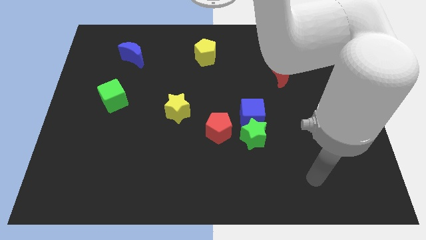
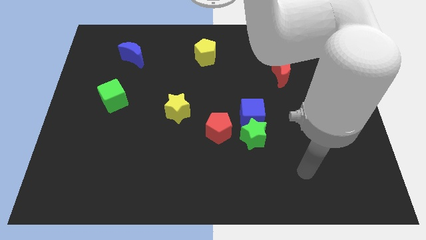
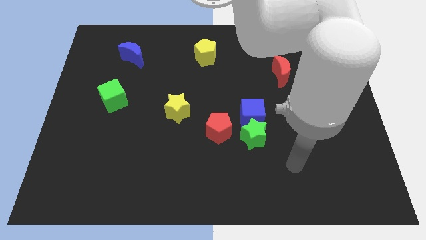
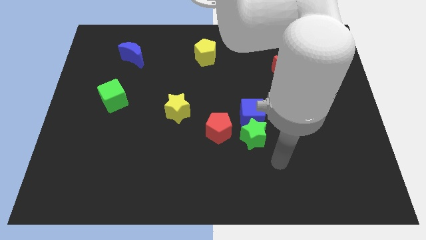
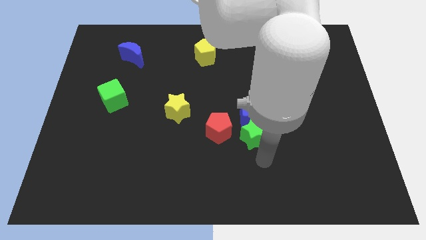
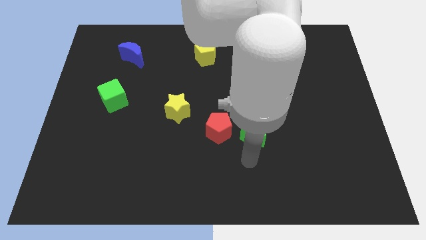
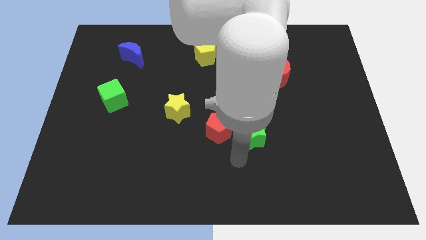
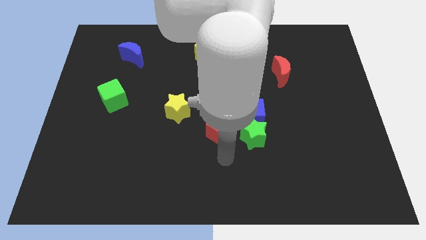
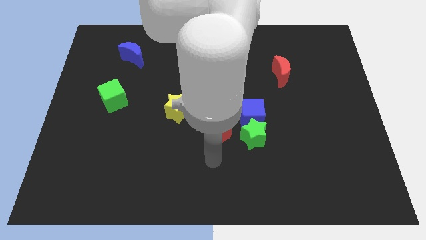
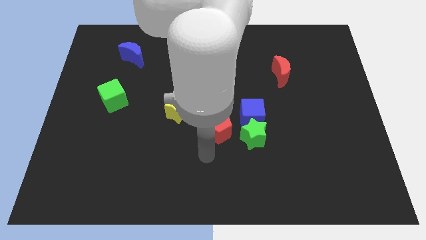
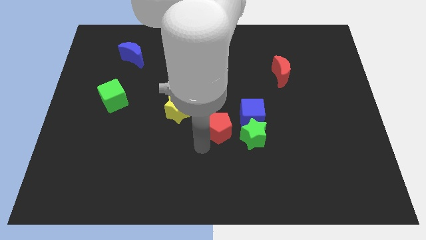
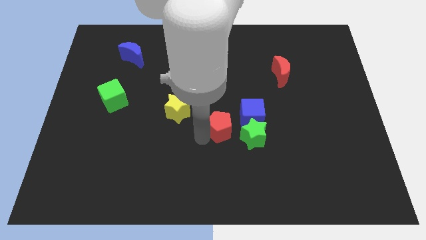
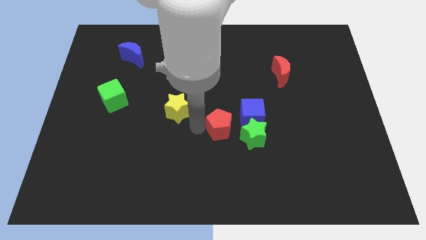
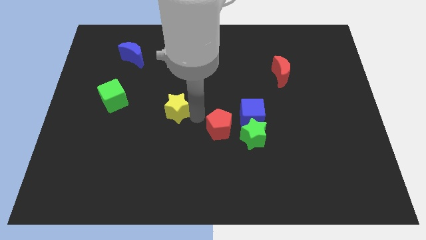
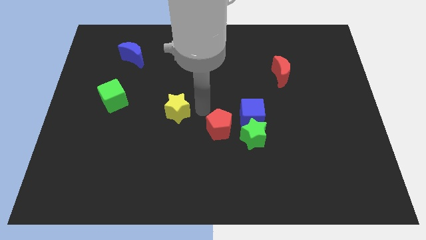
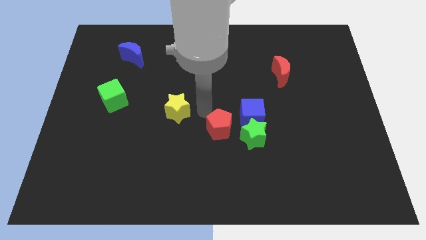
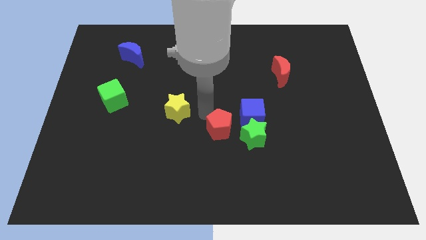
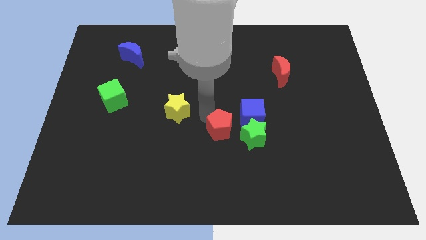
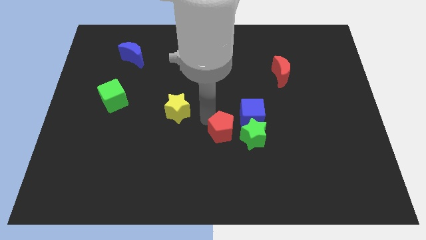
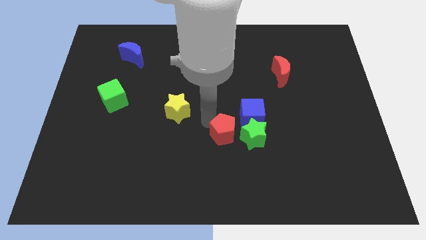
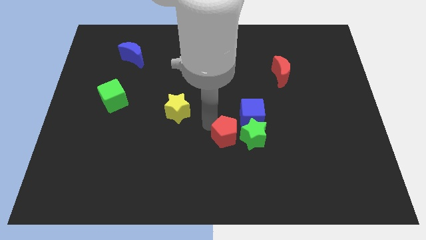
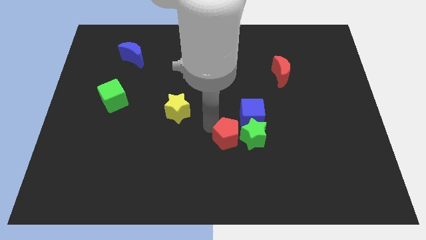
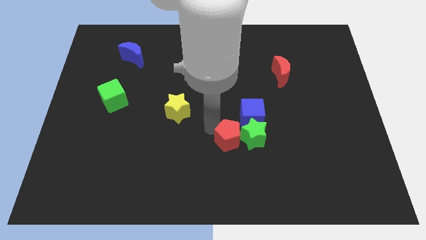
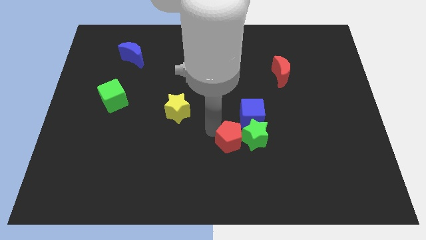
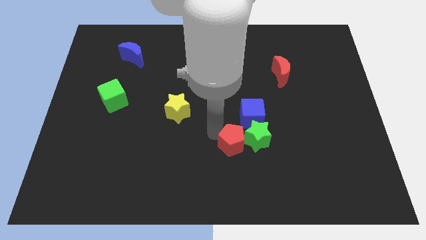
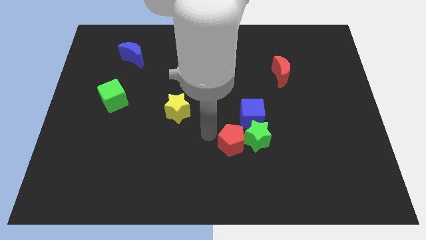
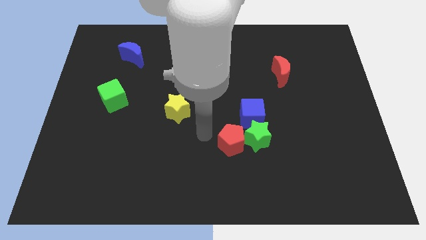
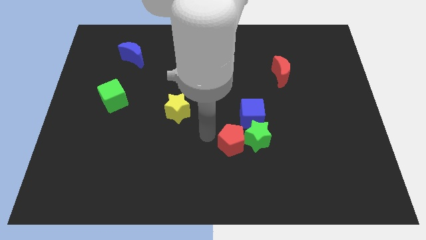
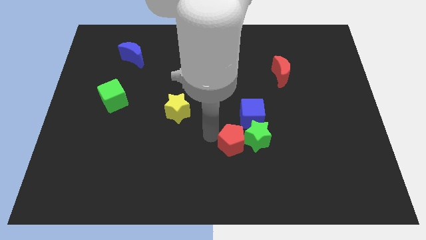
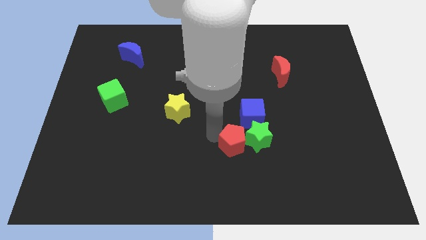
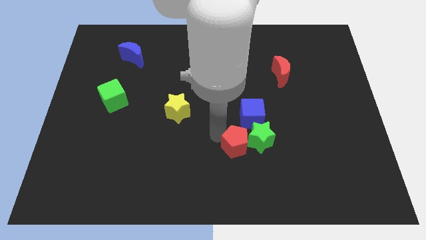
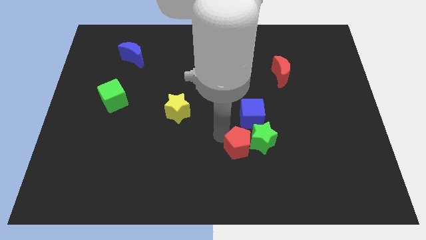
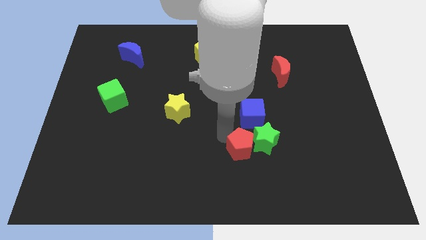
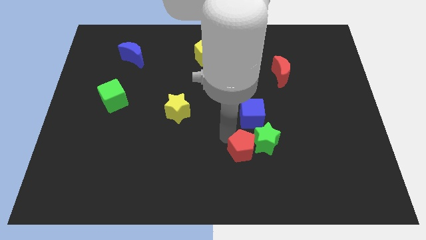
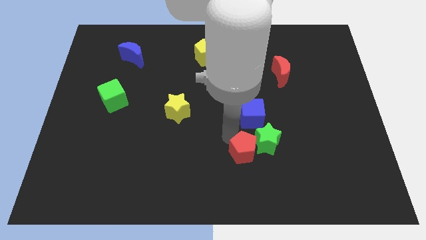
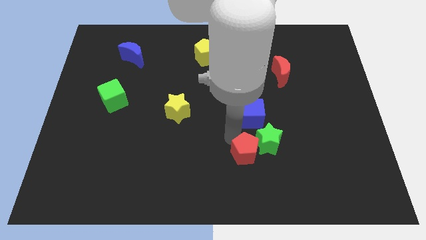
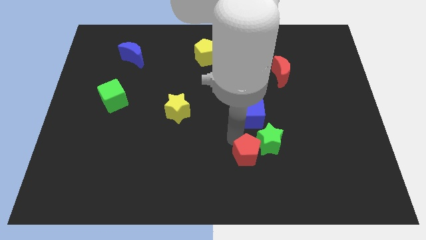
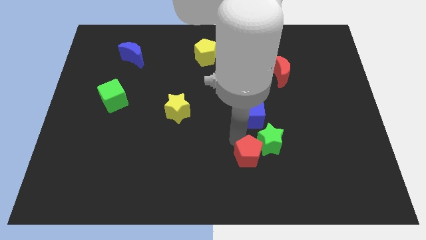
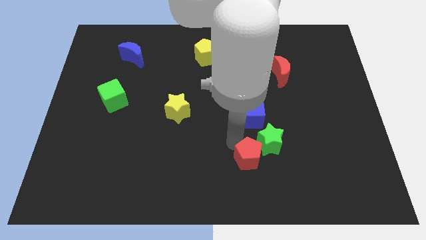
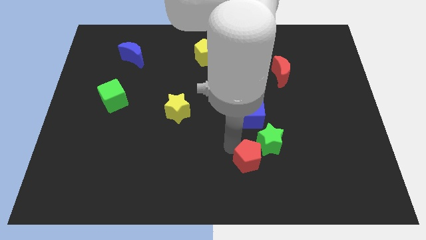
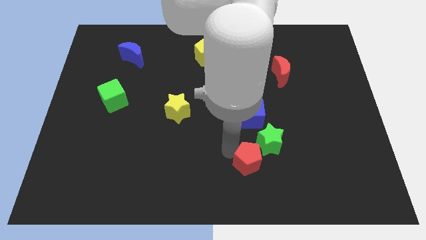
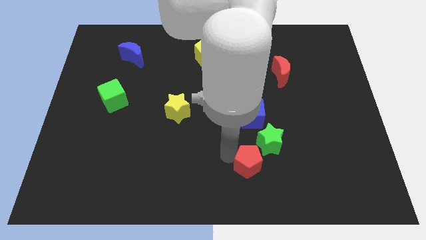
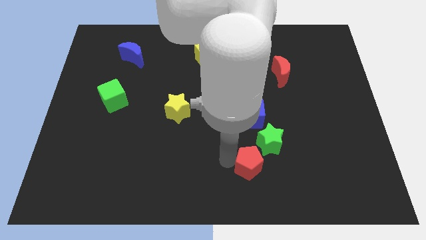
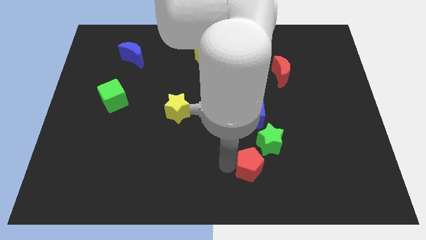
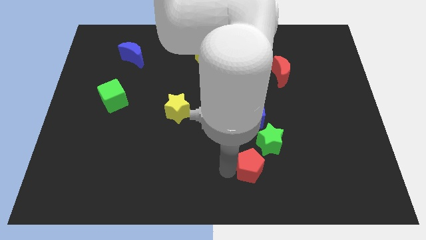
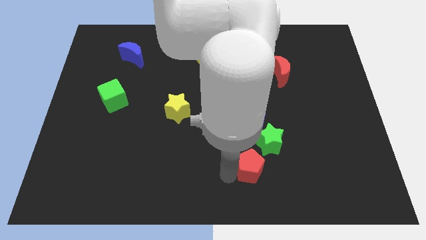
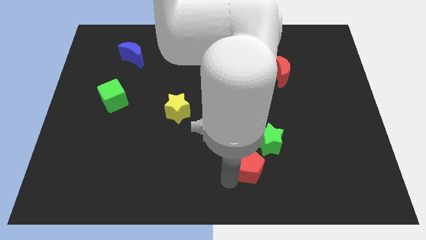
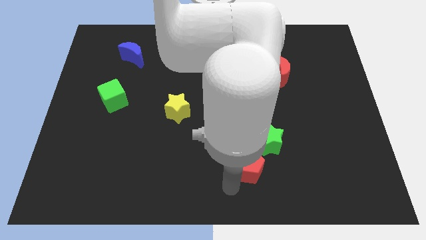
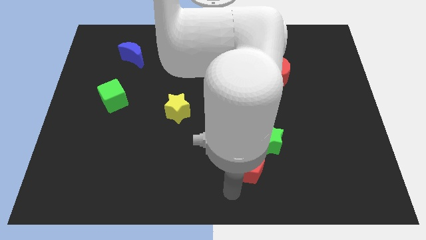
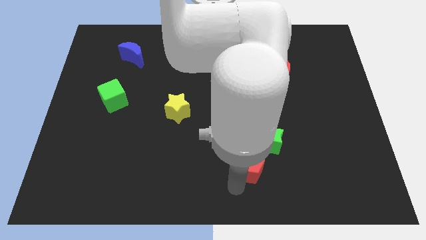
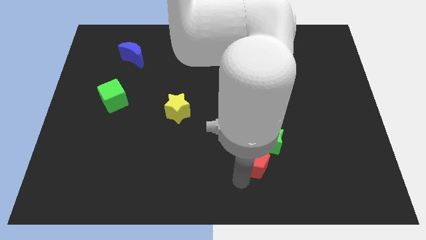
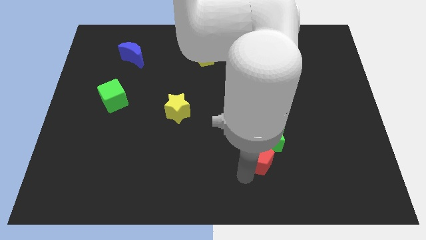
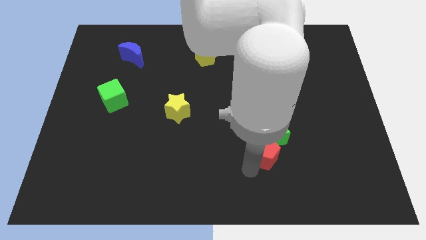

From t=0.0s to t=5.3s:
push the red pentagon right a little

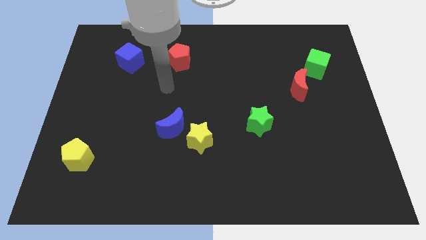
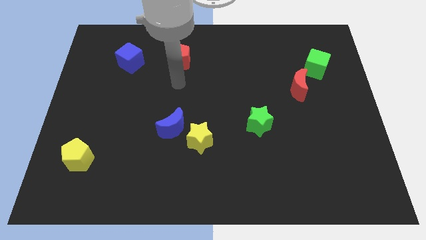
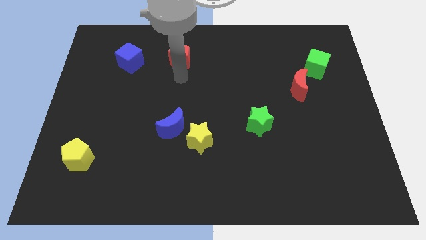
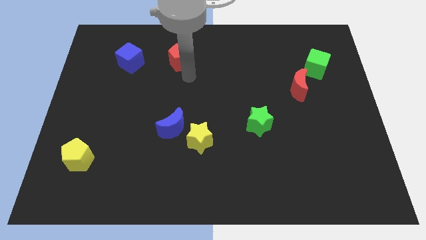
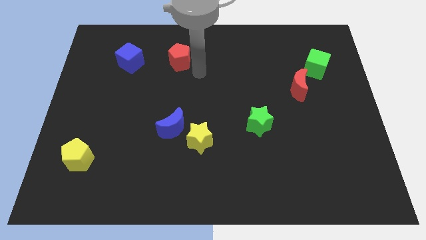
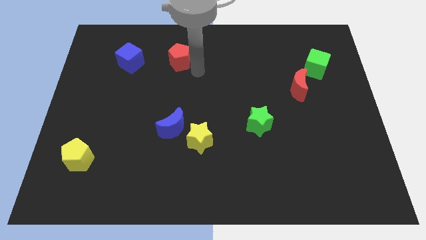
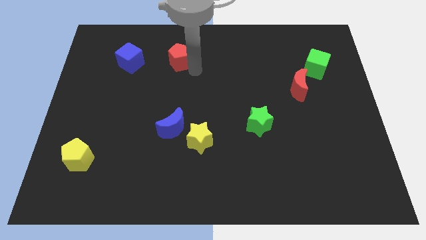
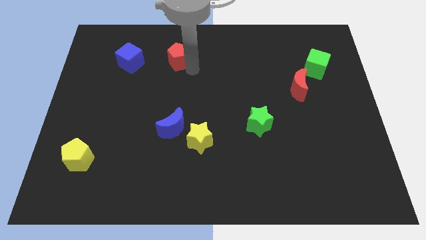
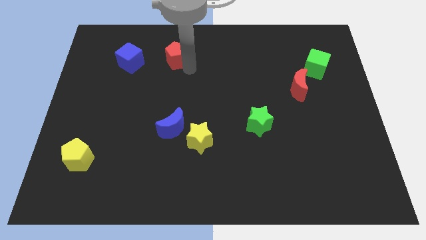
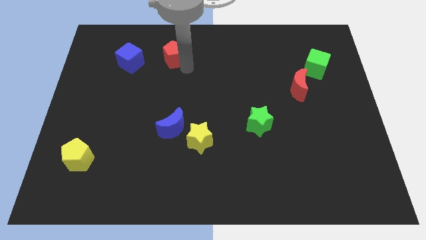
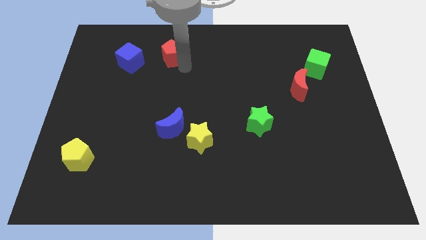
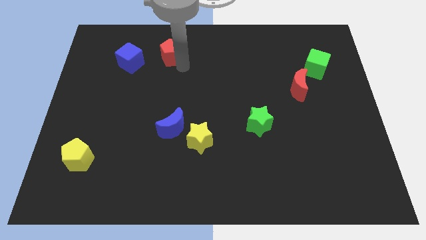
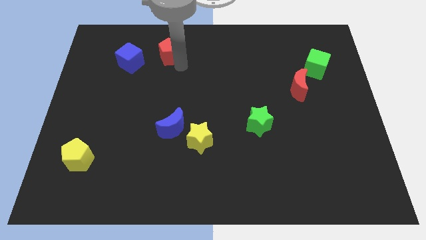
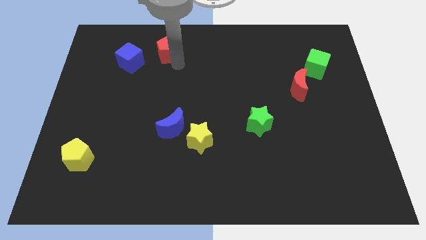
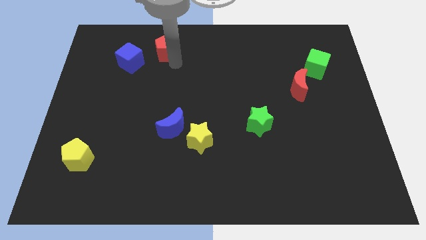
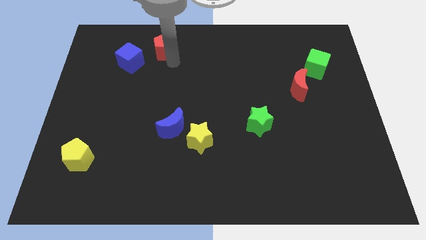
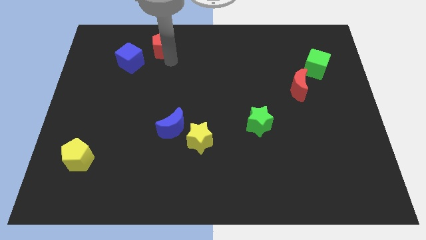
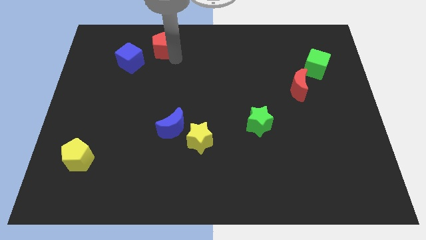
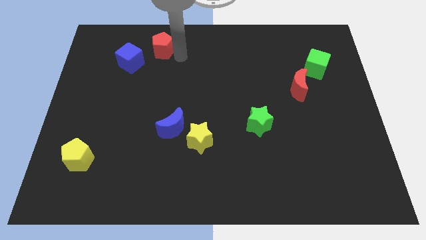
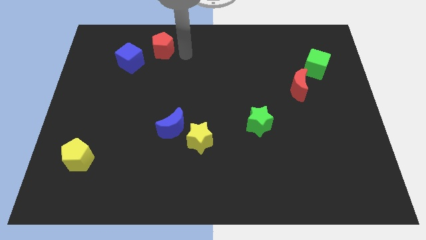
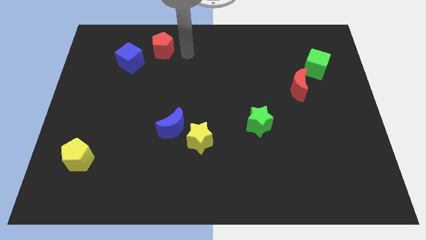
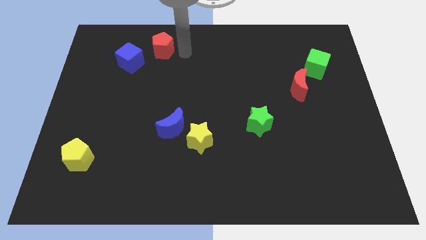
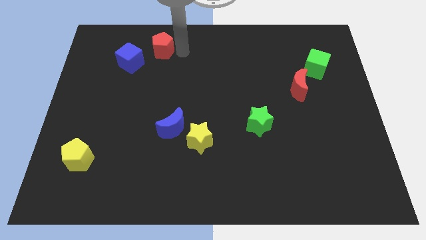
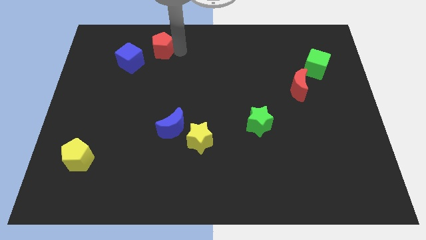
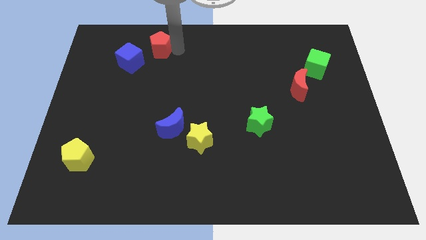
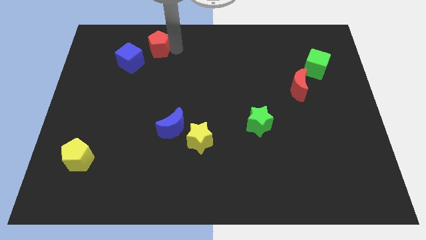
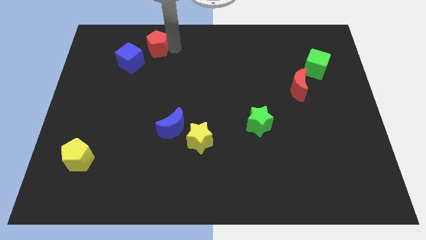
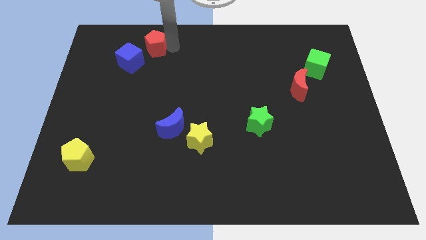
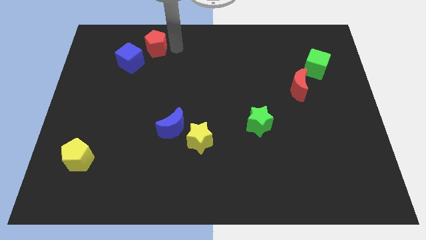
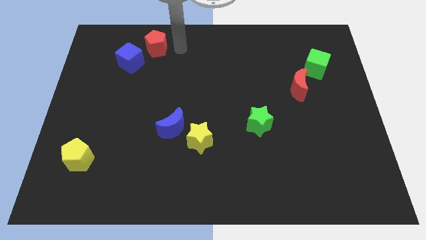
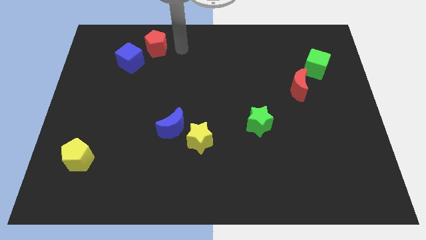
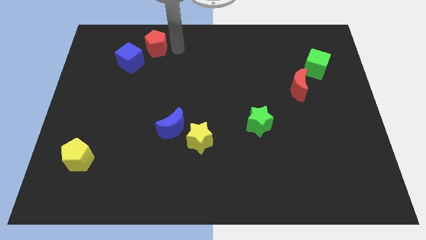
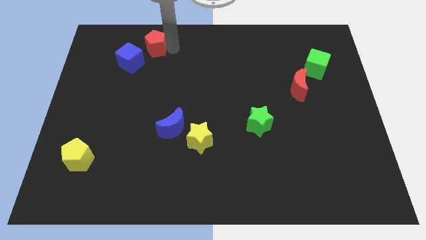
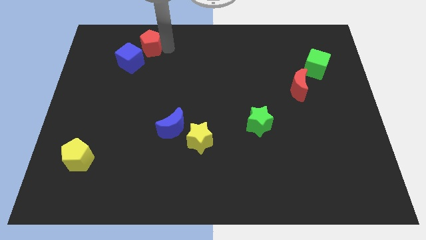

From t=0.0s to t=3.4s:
slightly push the red pentagon left
